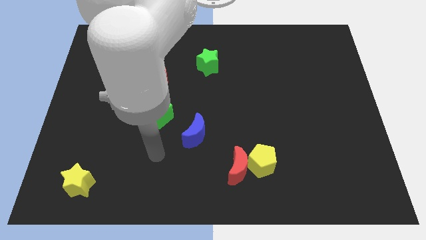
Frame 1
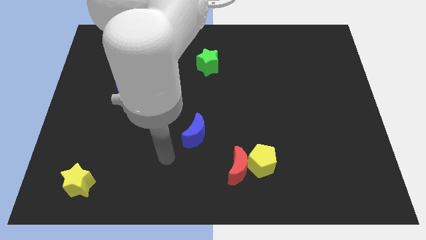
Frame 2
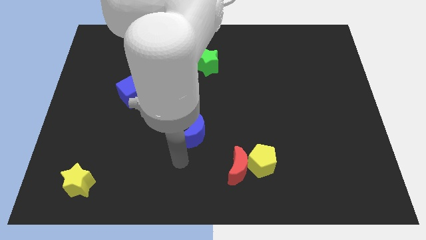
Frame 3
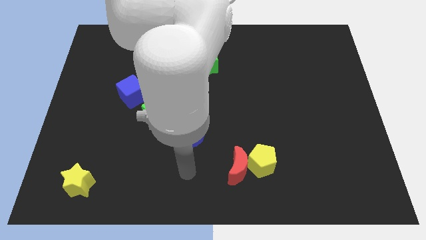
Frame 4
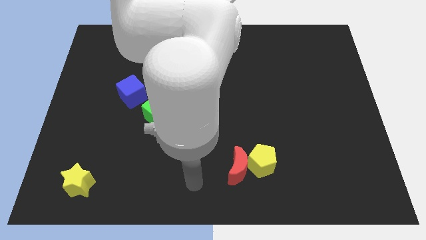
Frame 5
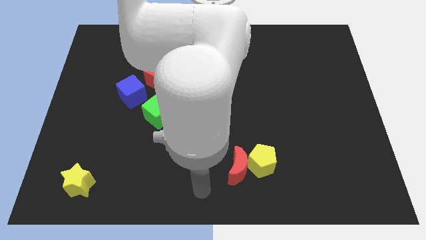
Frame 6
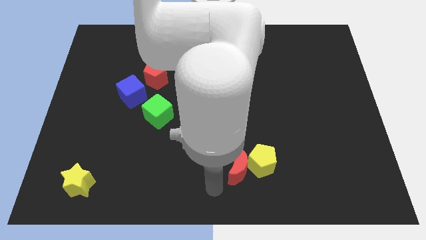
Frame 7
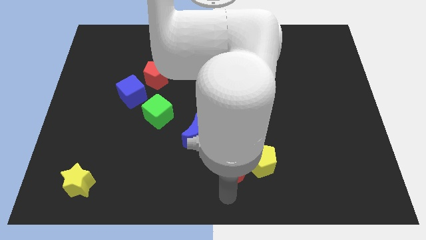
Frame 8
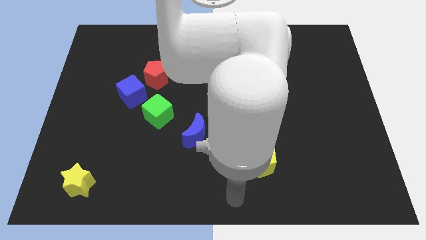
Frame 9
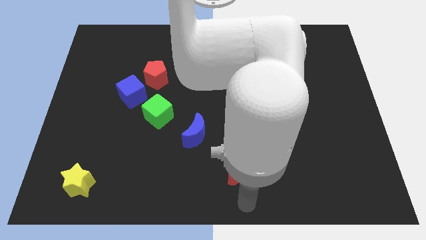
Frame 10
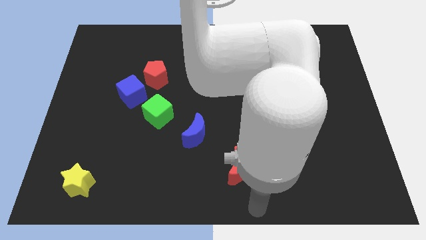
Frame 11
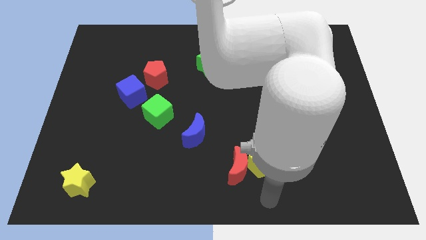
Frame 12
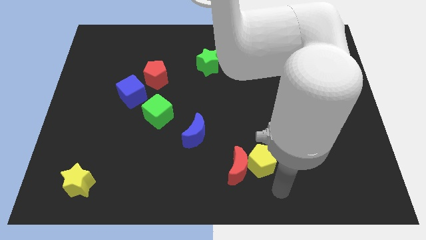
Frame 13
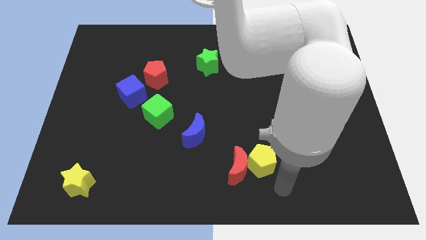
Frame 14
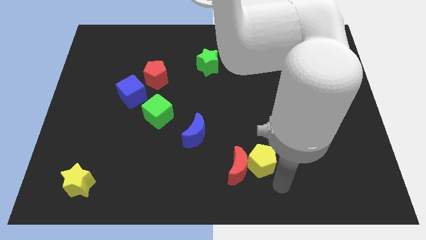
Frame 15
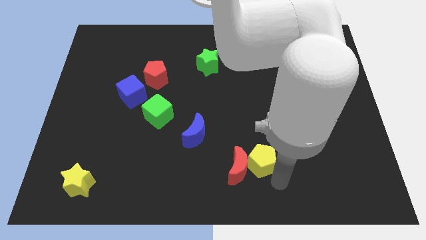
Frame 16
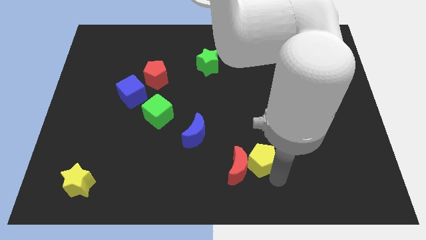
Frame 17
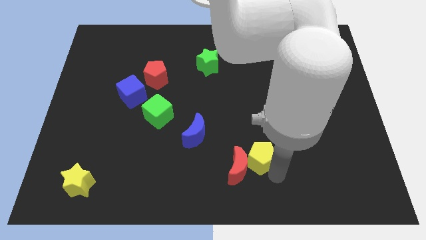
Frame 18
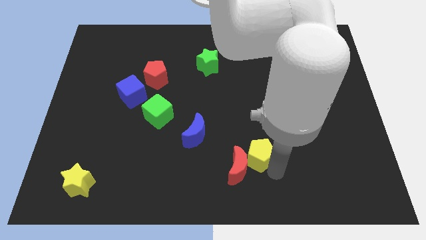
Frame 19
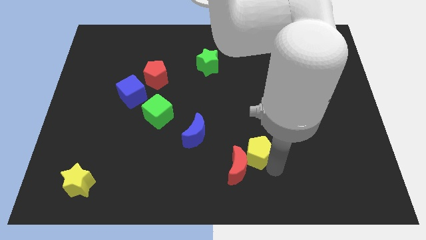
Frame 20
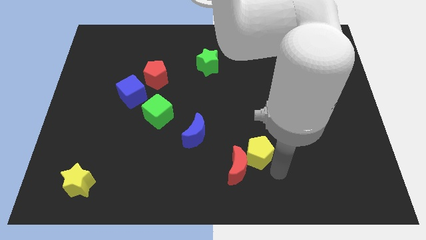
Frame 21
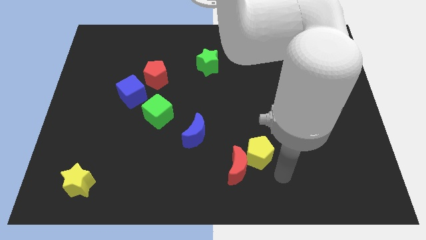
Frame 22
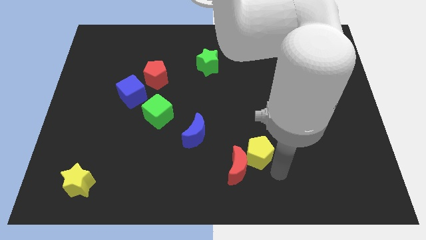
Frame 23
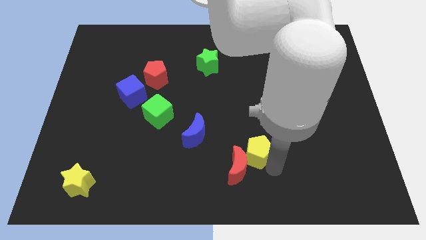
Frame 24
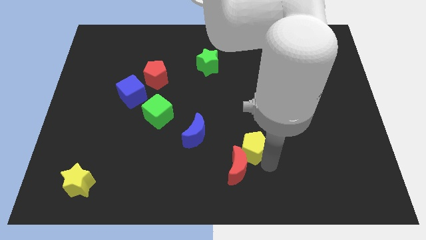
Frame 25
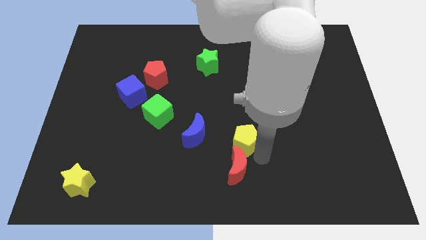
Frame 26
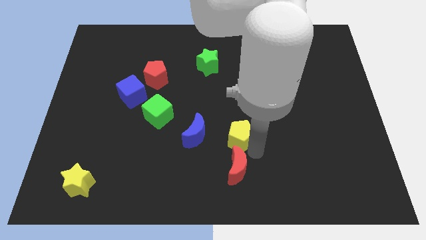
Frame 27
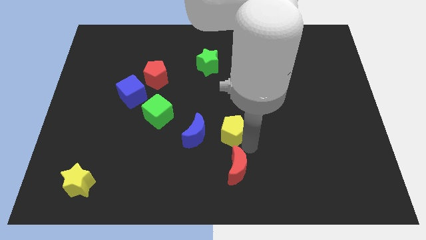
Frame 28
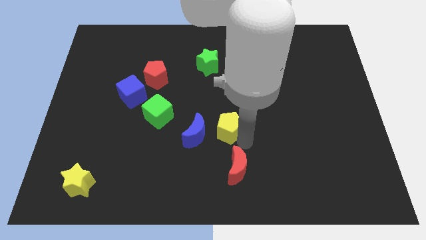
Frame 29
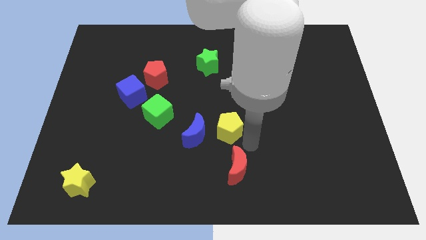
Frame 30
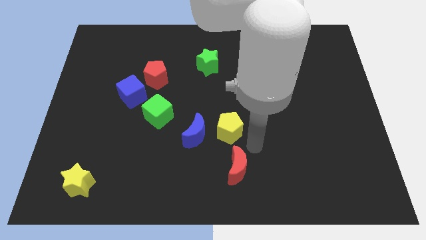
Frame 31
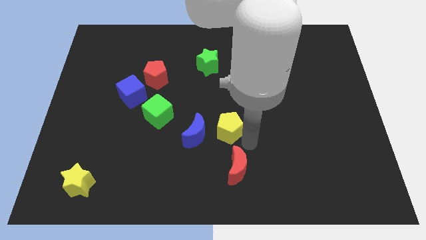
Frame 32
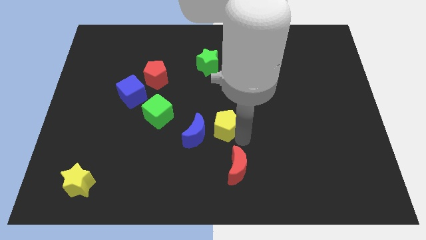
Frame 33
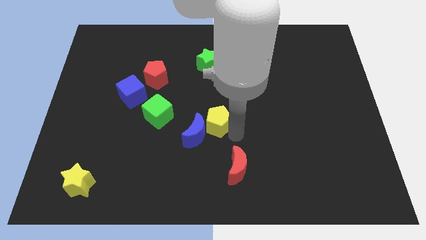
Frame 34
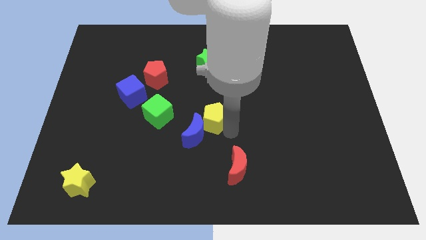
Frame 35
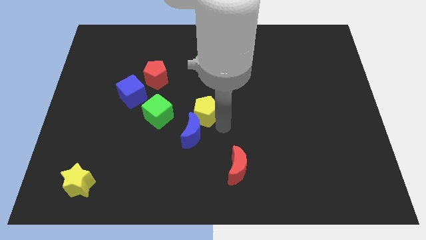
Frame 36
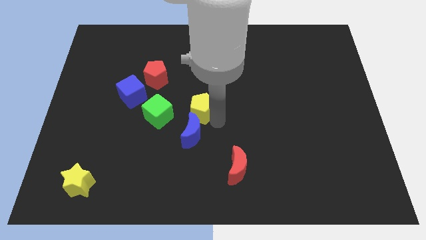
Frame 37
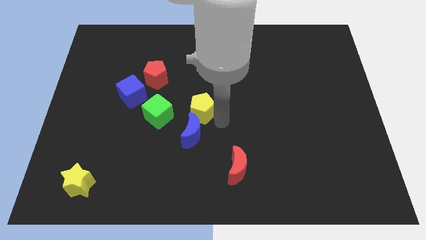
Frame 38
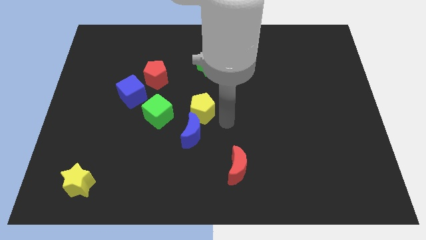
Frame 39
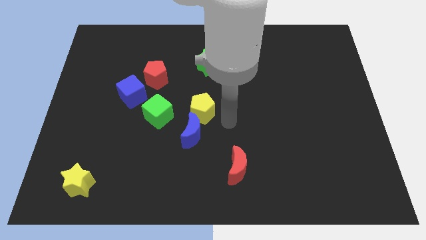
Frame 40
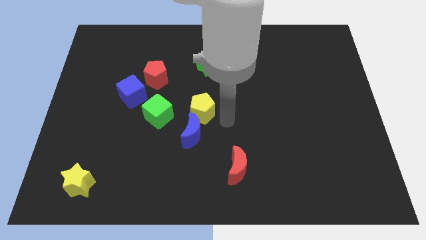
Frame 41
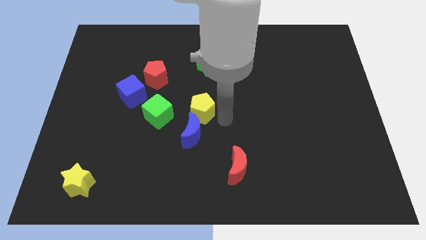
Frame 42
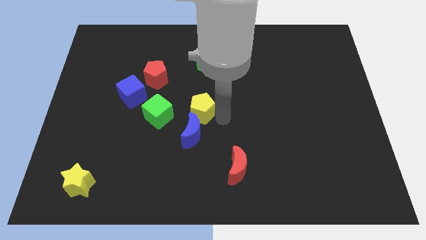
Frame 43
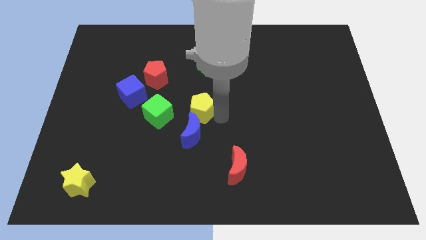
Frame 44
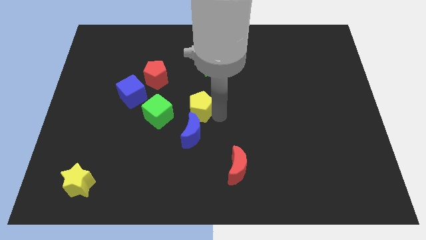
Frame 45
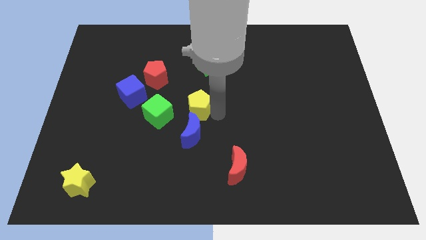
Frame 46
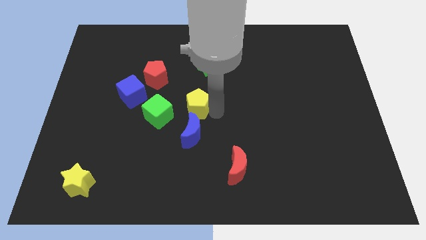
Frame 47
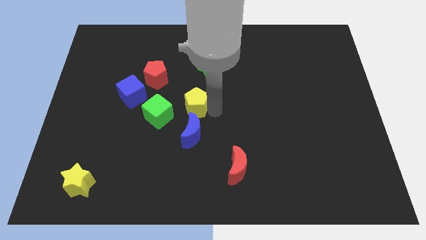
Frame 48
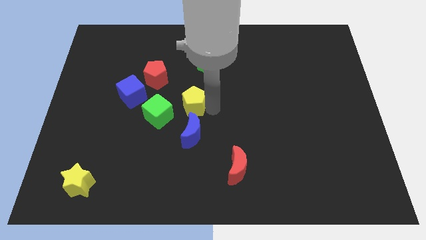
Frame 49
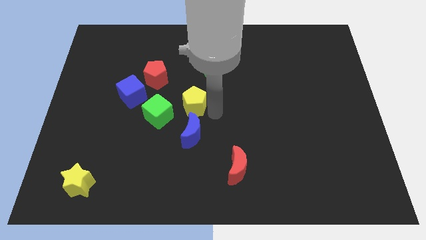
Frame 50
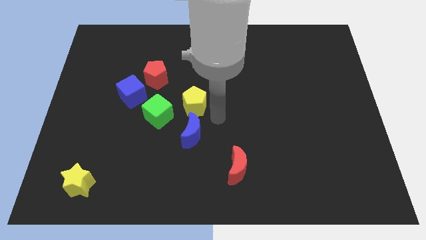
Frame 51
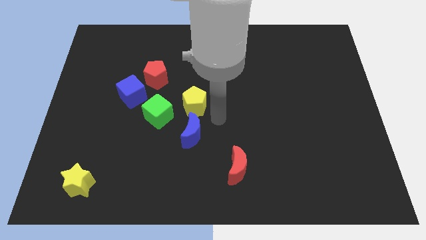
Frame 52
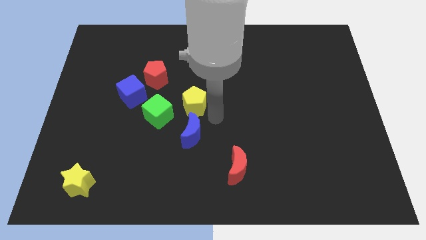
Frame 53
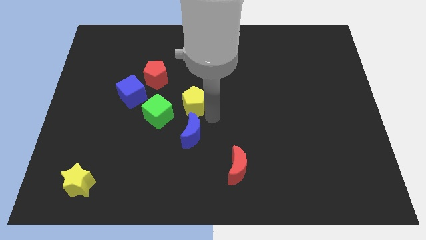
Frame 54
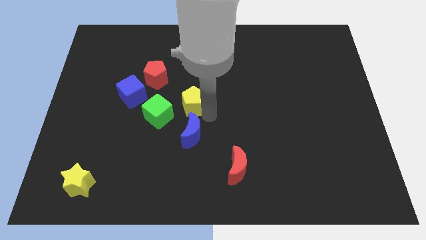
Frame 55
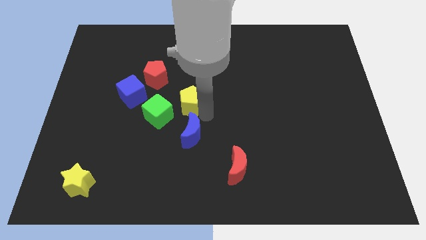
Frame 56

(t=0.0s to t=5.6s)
put the yellow pentagon diagonally down and to the right of the red pentagon

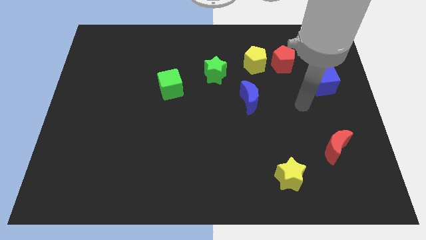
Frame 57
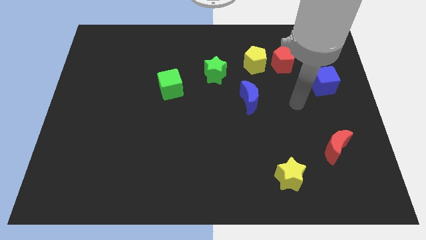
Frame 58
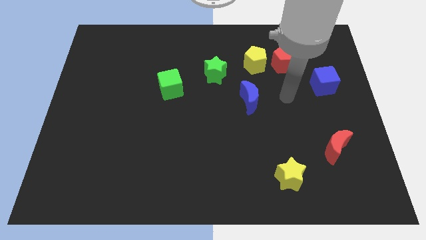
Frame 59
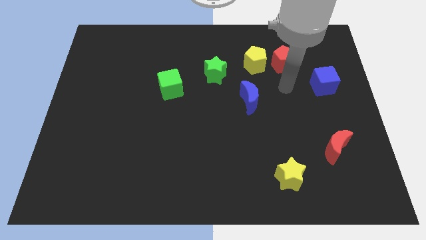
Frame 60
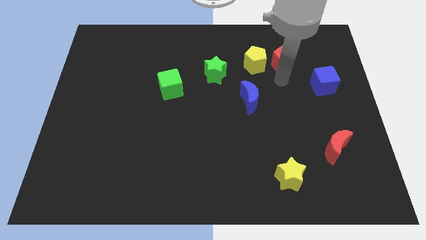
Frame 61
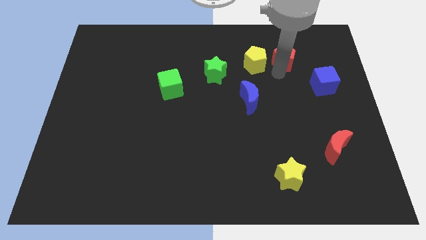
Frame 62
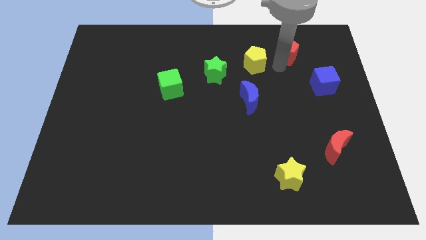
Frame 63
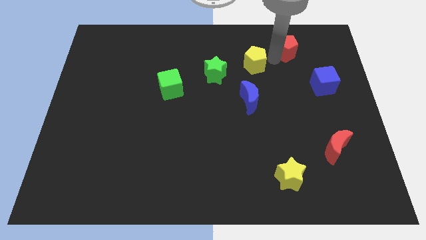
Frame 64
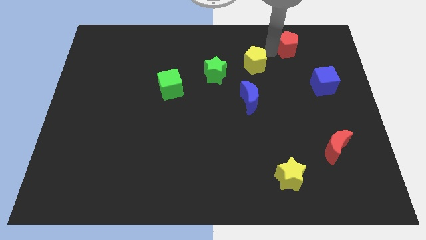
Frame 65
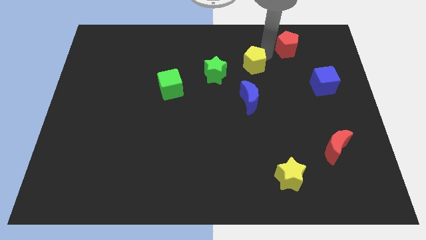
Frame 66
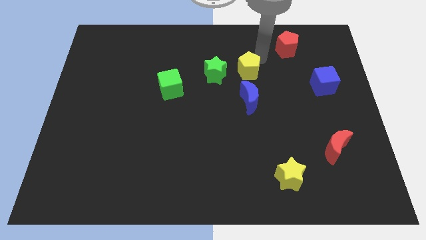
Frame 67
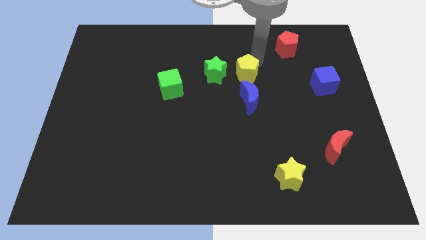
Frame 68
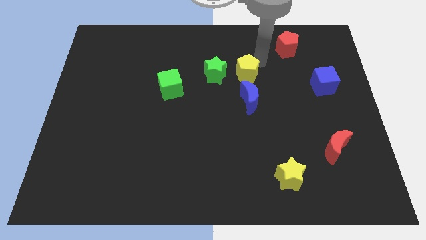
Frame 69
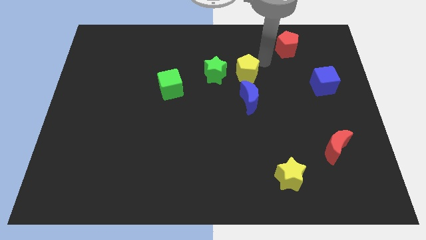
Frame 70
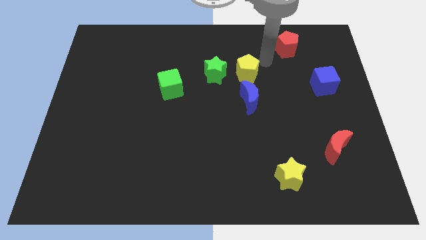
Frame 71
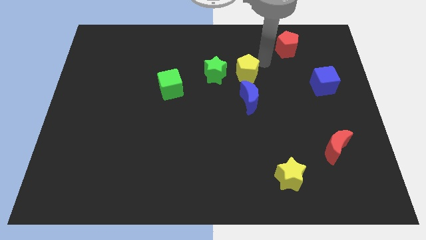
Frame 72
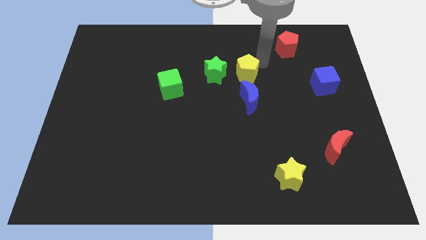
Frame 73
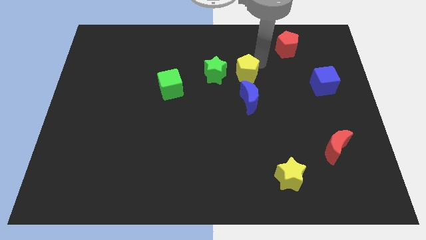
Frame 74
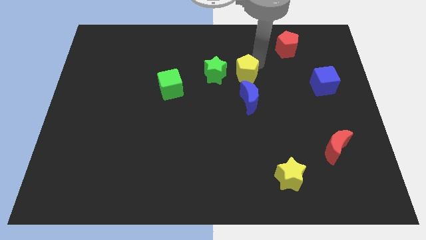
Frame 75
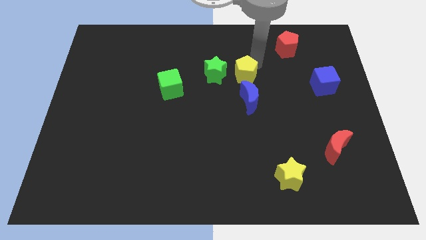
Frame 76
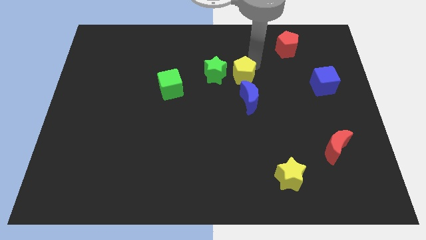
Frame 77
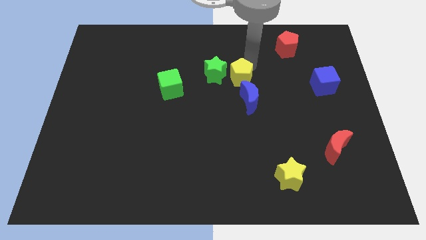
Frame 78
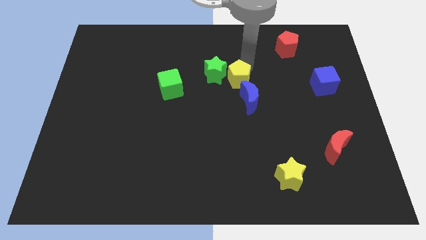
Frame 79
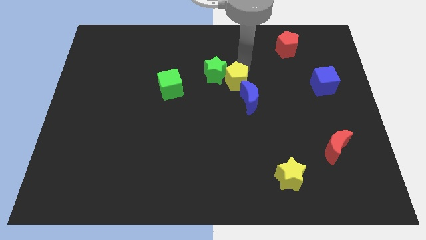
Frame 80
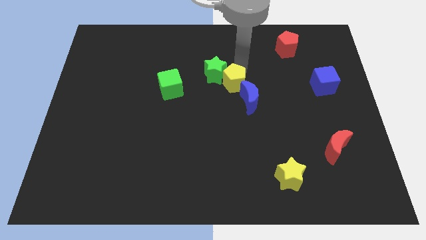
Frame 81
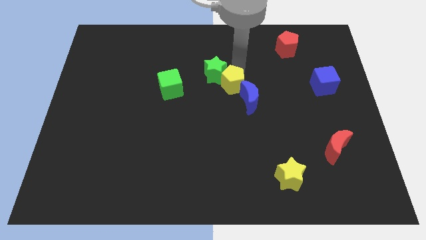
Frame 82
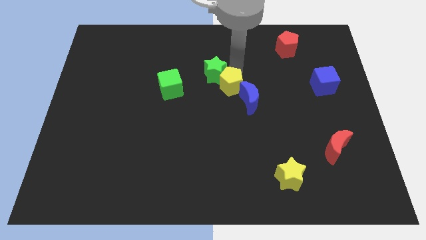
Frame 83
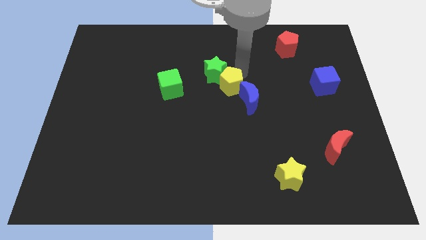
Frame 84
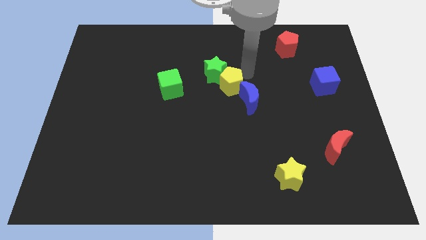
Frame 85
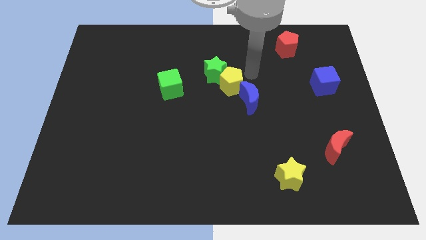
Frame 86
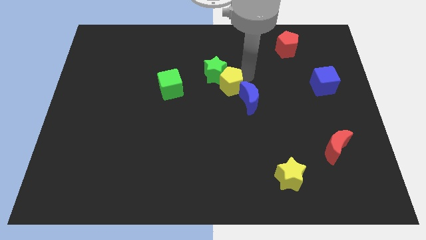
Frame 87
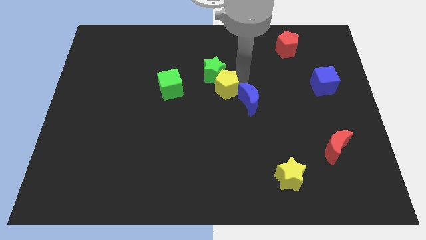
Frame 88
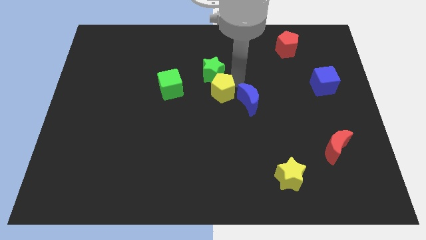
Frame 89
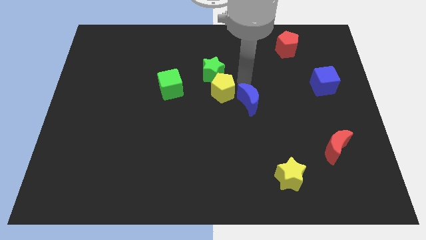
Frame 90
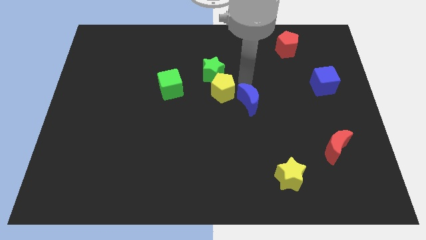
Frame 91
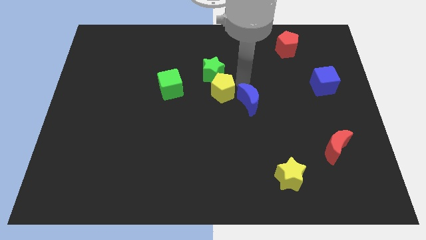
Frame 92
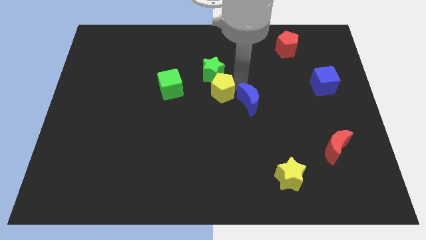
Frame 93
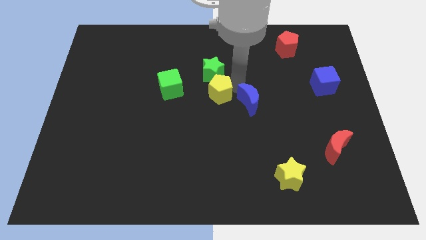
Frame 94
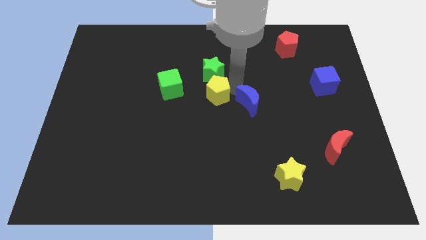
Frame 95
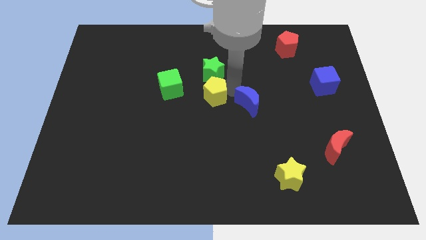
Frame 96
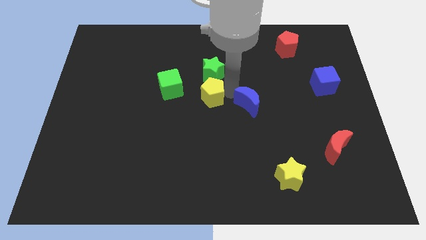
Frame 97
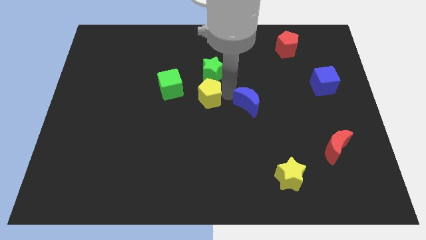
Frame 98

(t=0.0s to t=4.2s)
move the yellow pentagon diagonally down and to the right of the green cube
